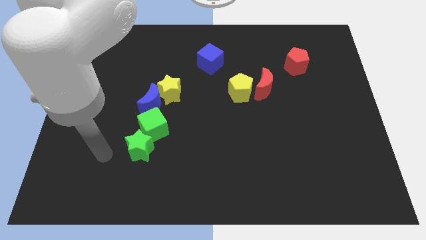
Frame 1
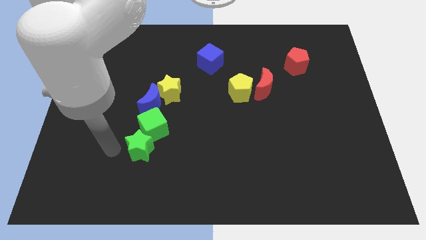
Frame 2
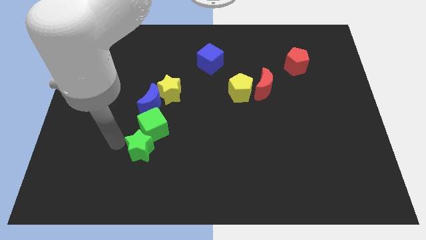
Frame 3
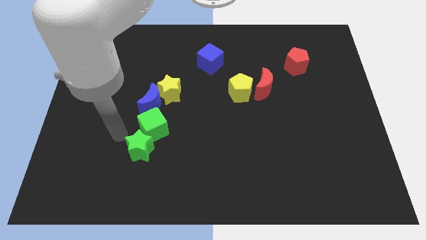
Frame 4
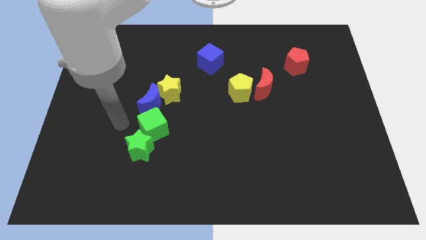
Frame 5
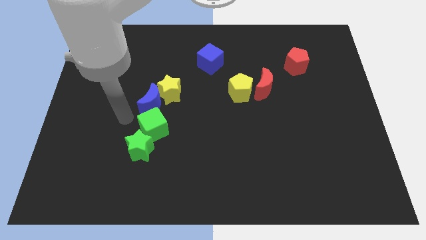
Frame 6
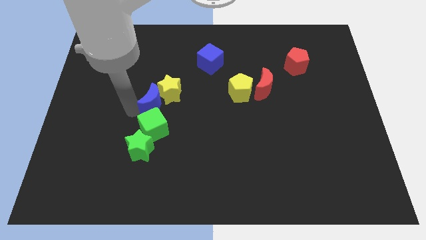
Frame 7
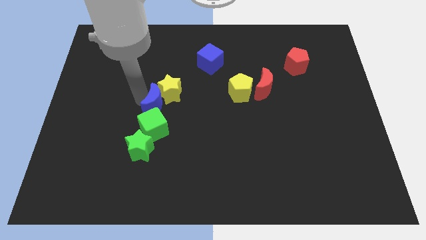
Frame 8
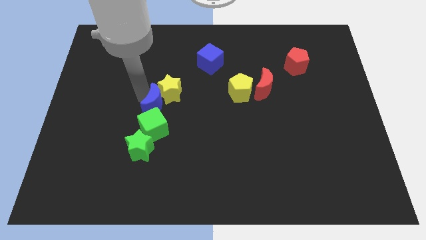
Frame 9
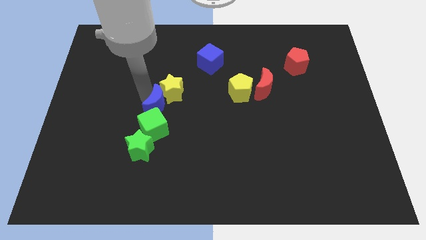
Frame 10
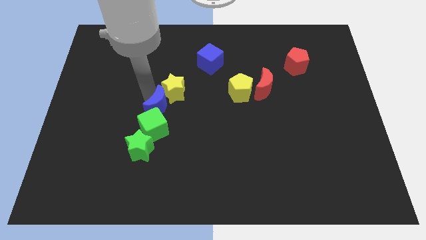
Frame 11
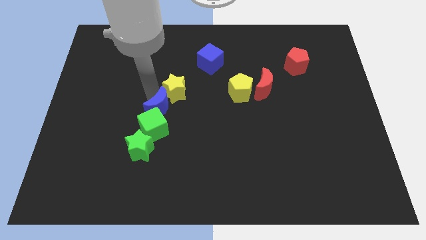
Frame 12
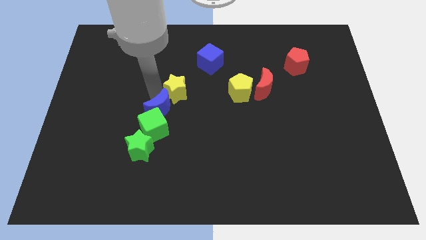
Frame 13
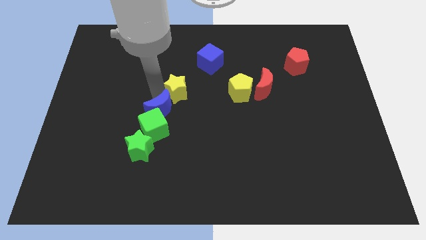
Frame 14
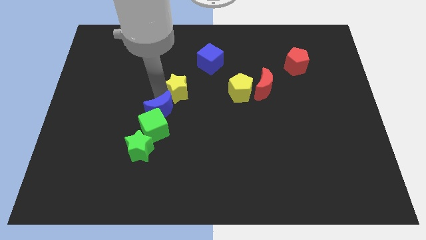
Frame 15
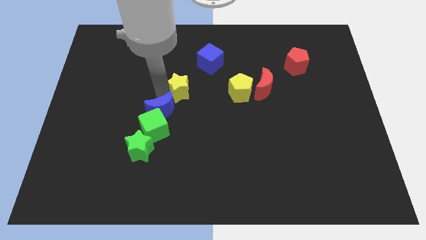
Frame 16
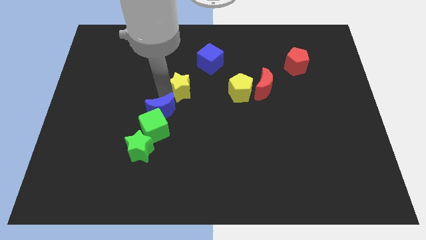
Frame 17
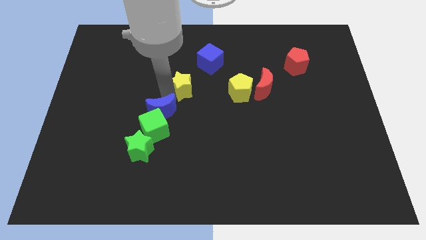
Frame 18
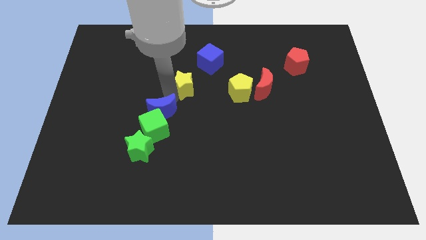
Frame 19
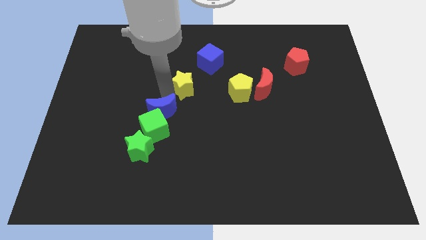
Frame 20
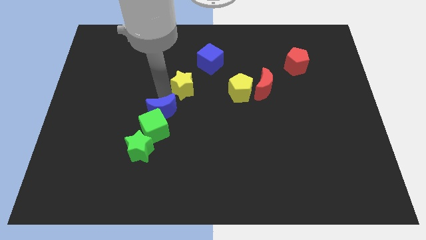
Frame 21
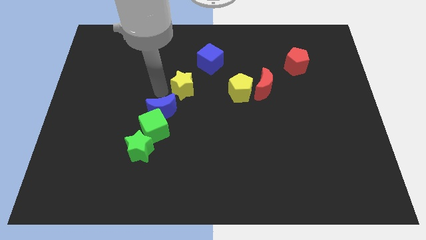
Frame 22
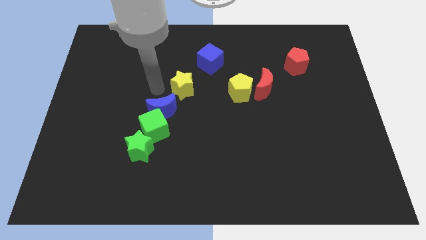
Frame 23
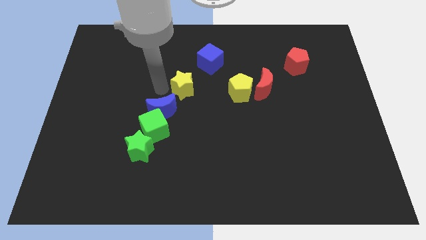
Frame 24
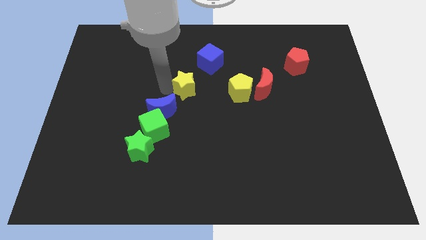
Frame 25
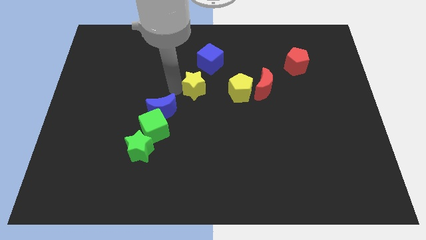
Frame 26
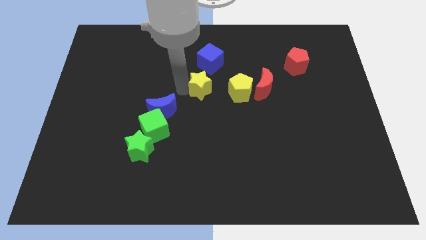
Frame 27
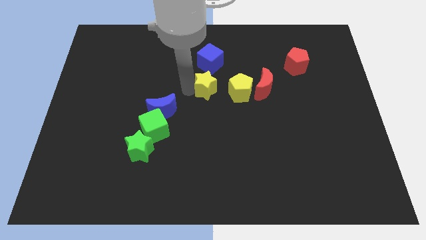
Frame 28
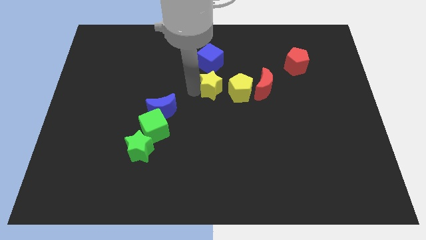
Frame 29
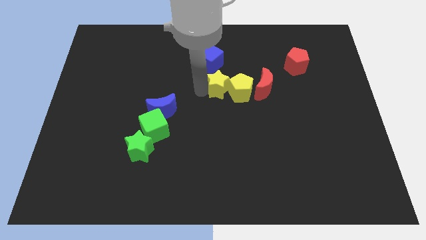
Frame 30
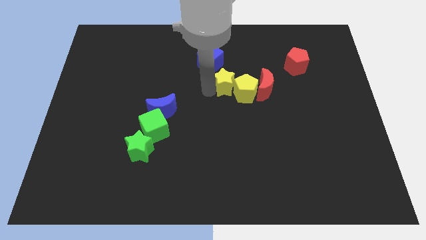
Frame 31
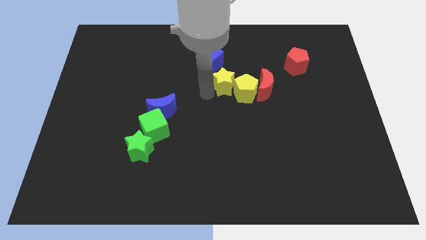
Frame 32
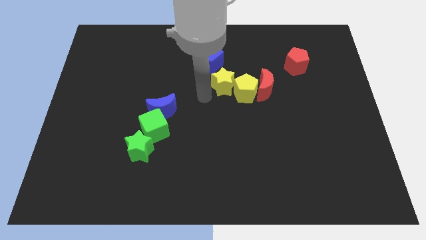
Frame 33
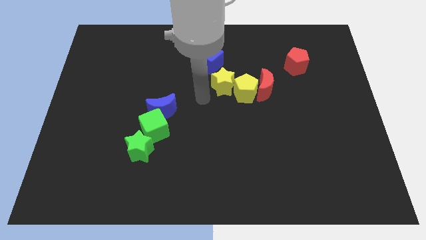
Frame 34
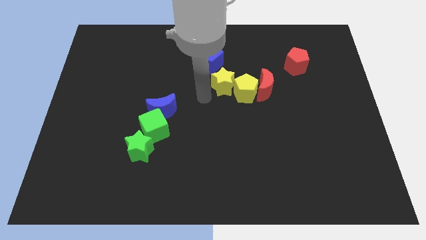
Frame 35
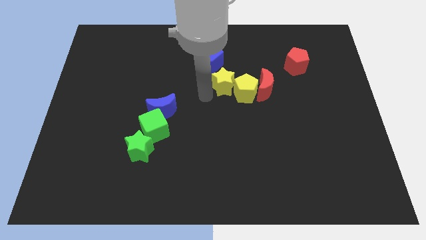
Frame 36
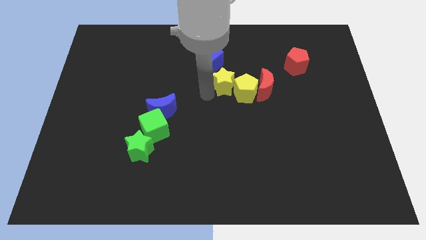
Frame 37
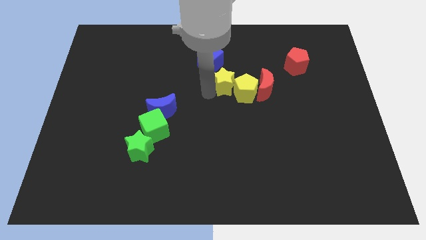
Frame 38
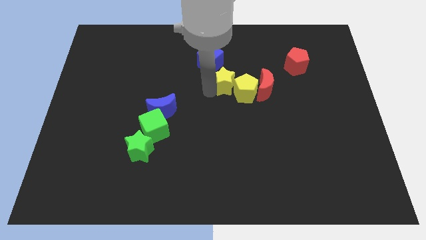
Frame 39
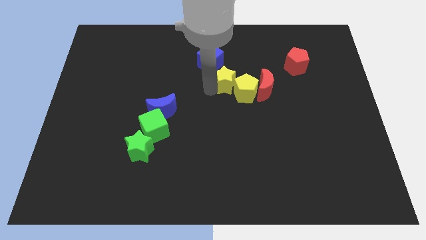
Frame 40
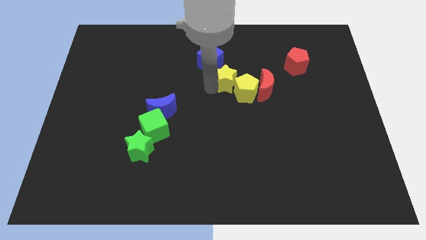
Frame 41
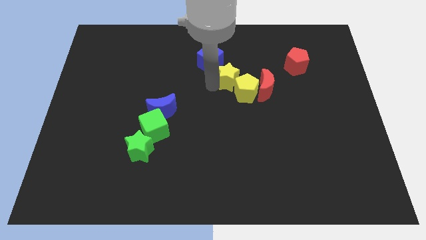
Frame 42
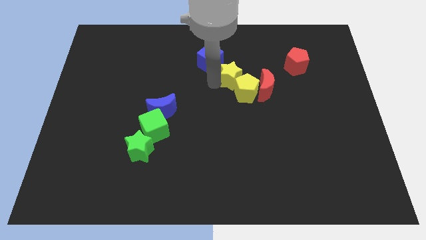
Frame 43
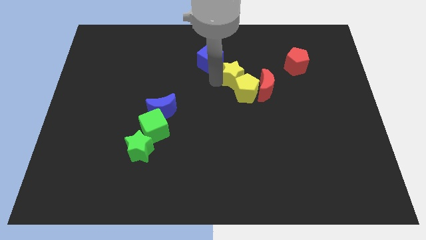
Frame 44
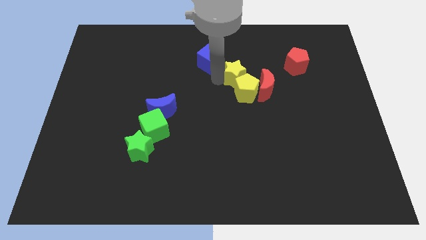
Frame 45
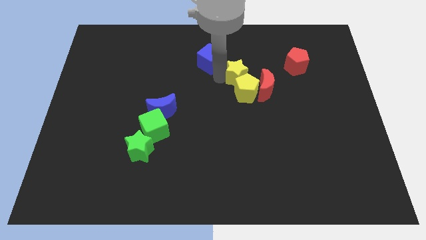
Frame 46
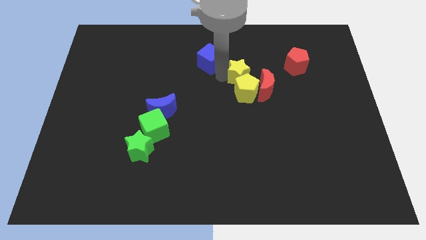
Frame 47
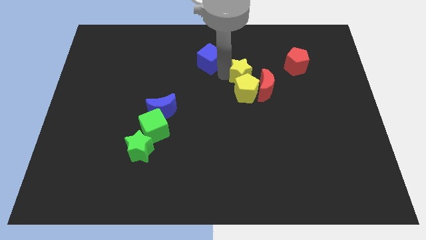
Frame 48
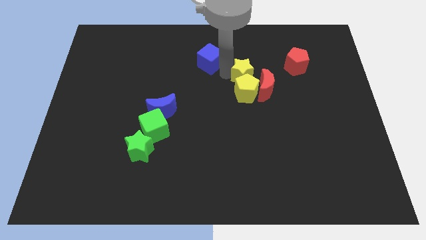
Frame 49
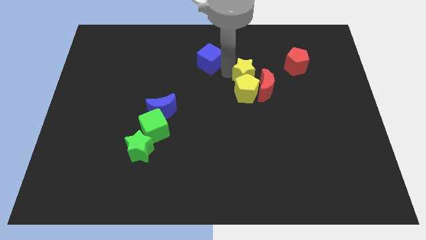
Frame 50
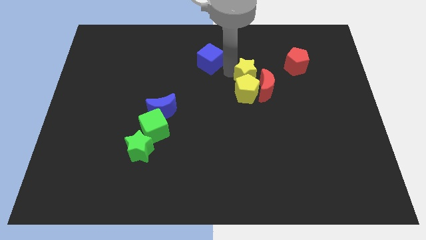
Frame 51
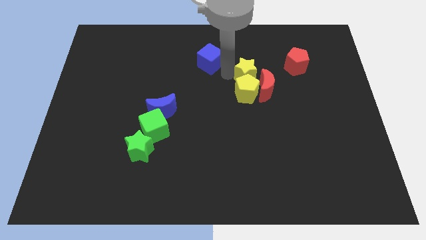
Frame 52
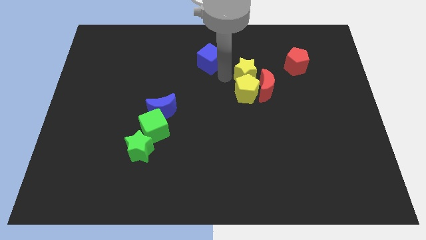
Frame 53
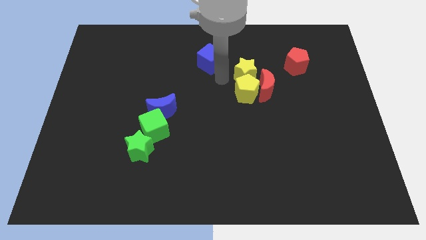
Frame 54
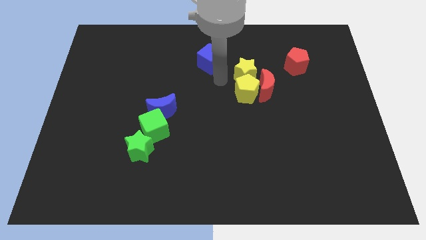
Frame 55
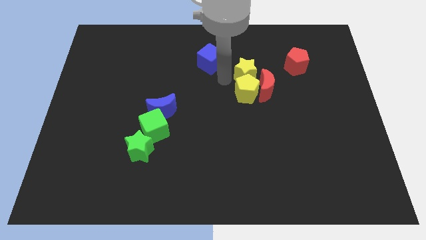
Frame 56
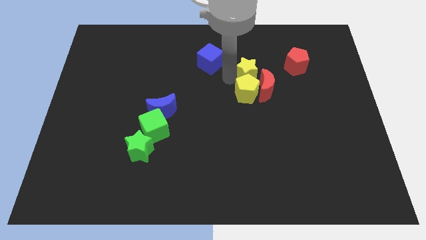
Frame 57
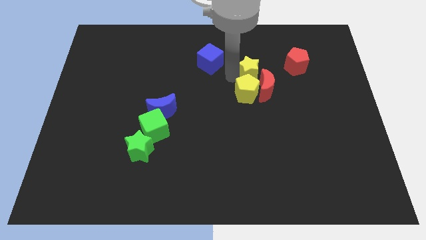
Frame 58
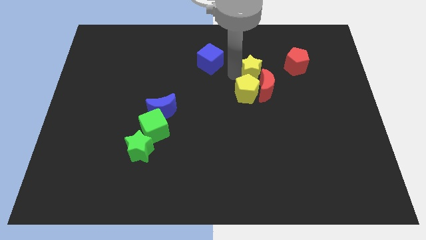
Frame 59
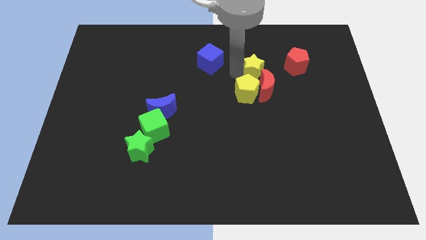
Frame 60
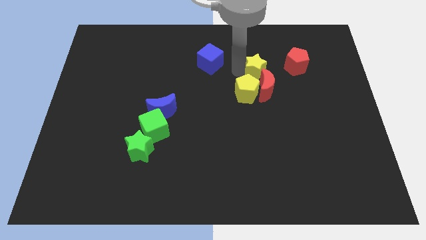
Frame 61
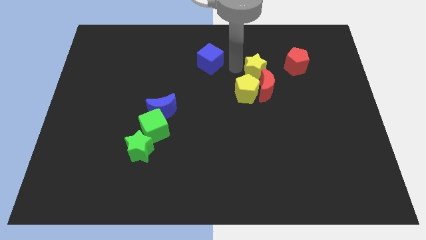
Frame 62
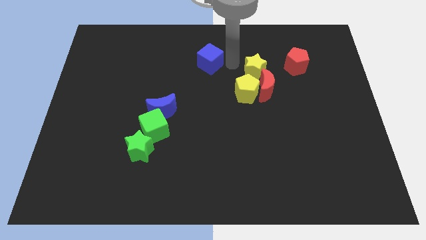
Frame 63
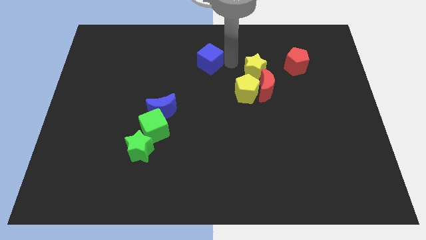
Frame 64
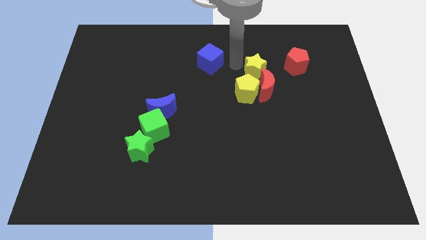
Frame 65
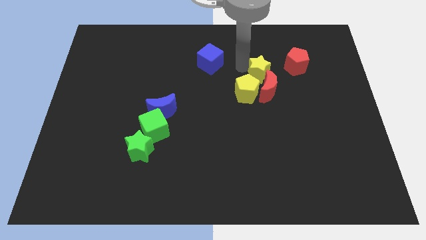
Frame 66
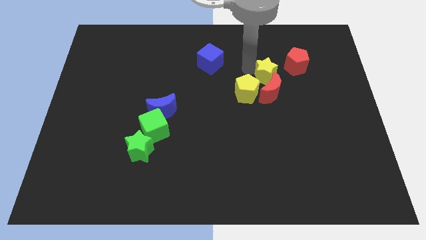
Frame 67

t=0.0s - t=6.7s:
put the yellow star to the bottom left of the red pentagon

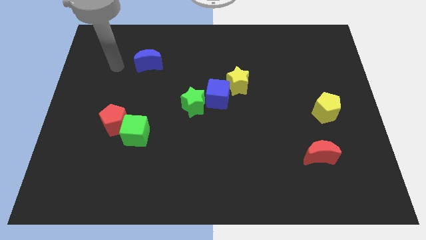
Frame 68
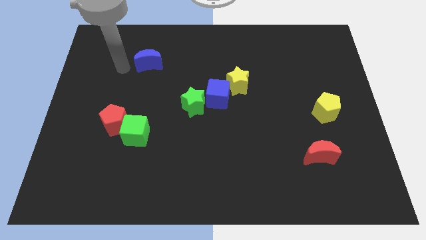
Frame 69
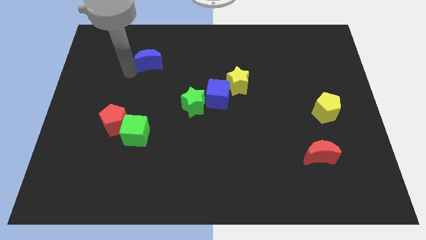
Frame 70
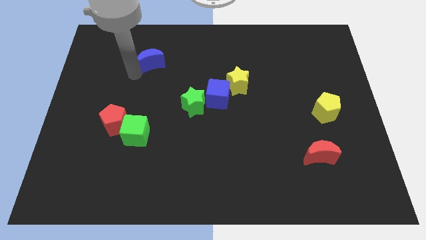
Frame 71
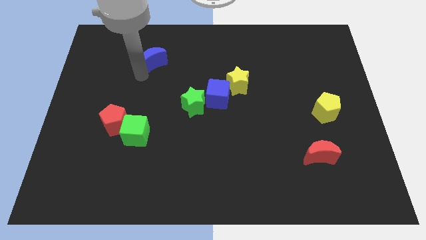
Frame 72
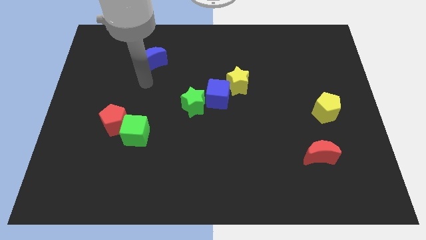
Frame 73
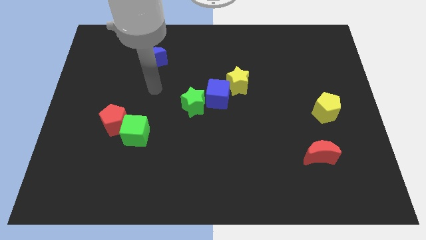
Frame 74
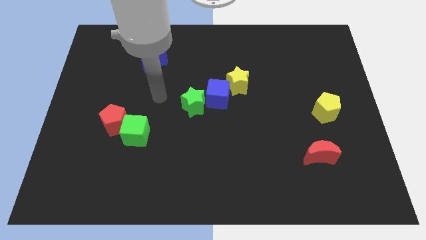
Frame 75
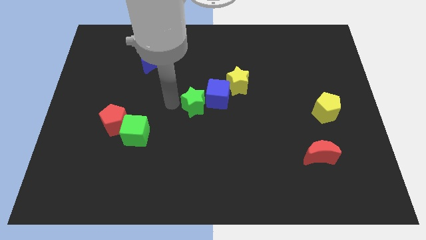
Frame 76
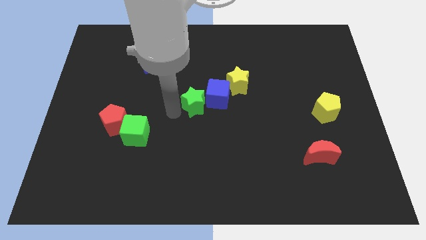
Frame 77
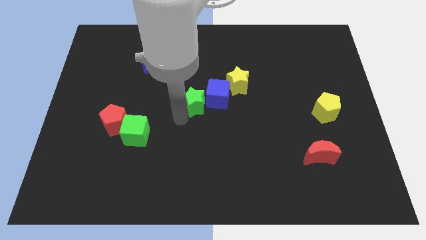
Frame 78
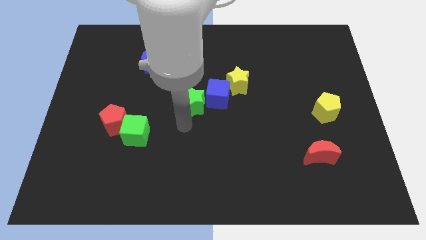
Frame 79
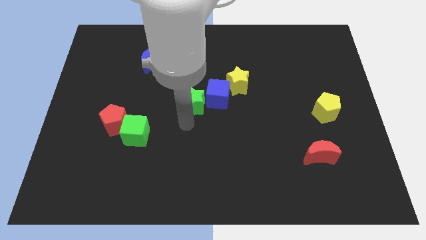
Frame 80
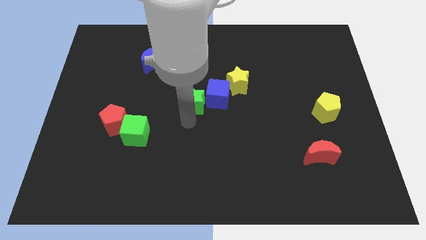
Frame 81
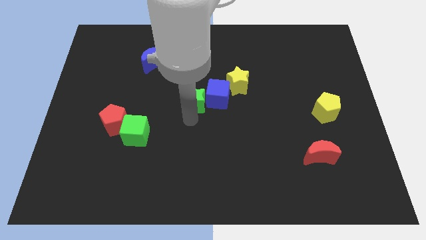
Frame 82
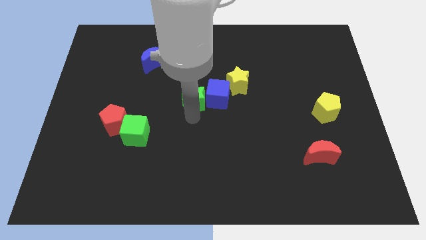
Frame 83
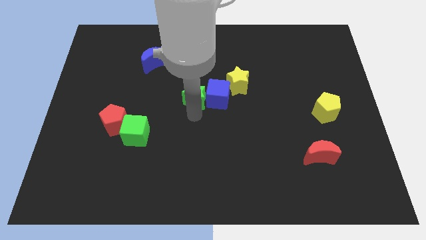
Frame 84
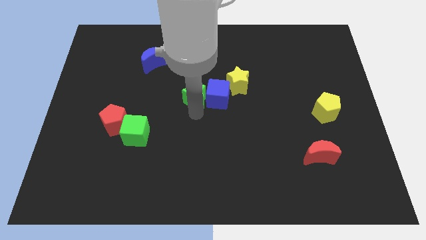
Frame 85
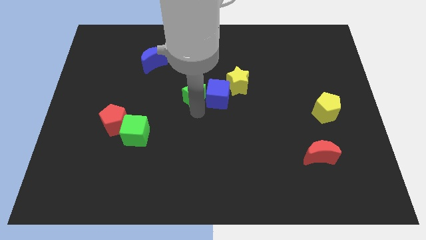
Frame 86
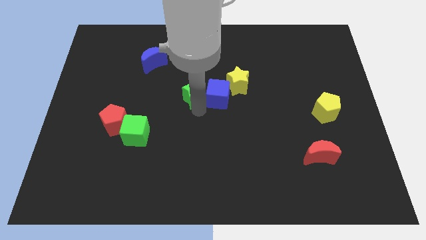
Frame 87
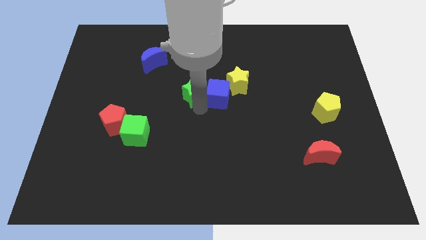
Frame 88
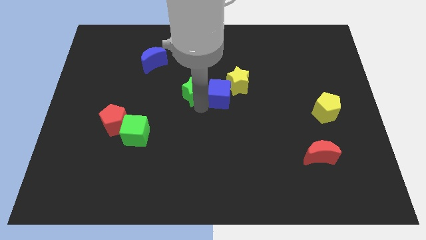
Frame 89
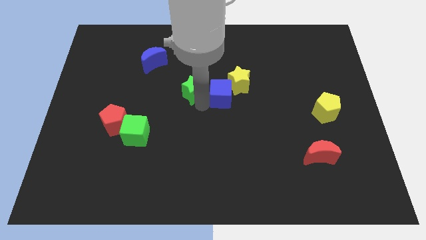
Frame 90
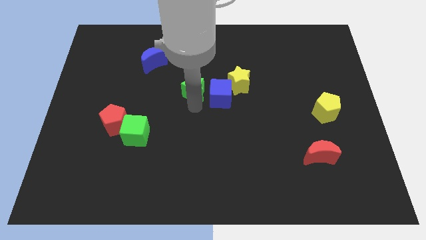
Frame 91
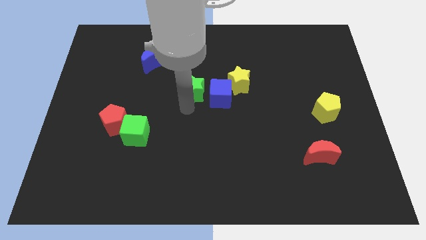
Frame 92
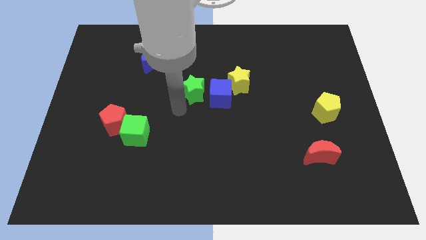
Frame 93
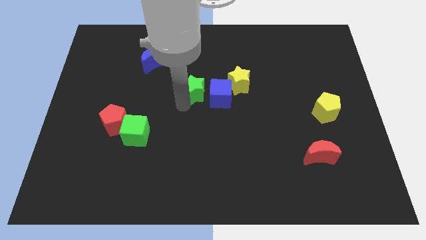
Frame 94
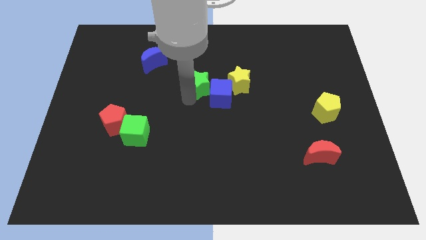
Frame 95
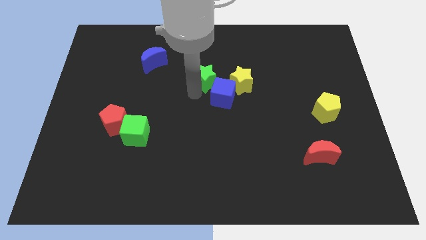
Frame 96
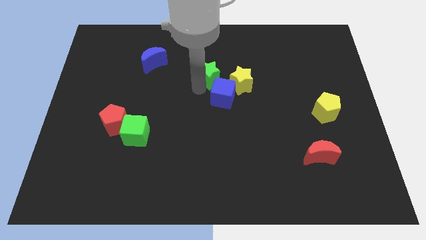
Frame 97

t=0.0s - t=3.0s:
push the green star to the top left of the yellow star
